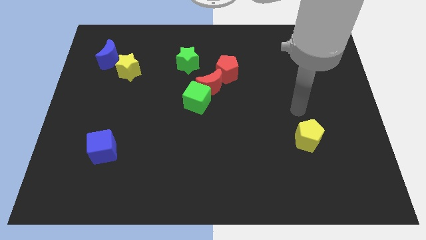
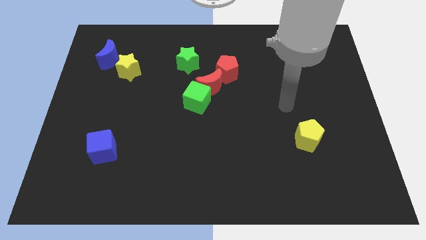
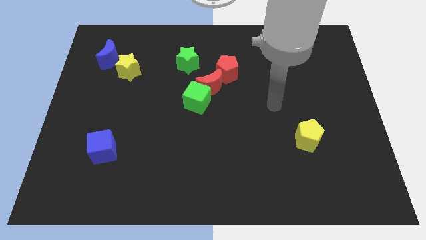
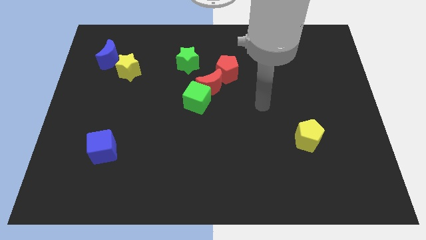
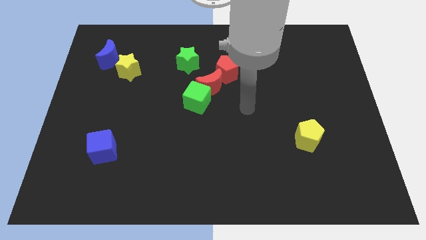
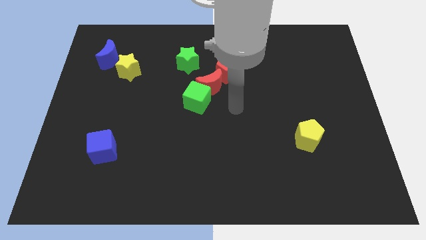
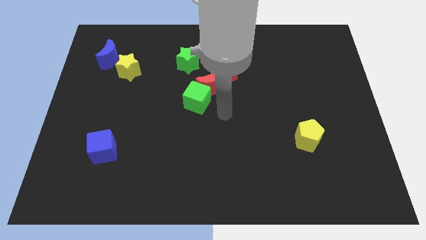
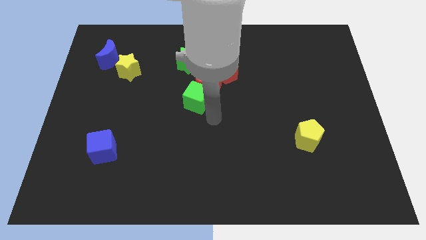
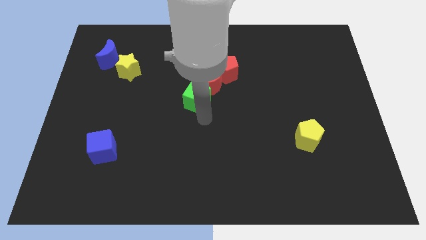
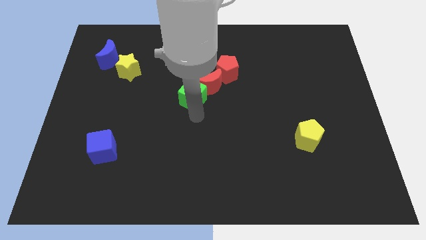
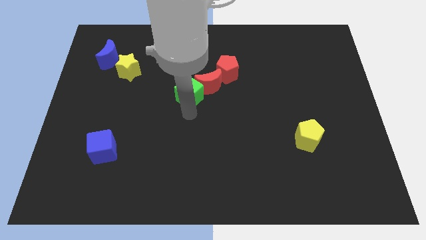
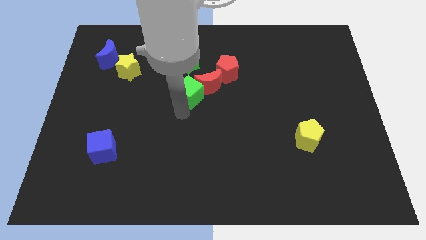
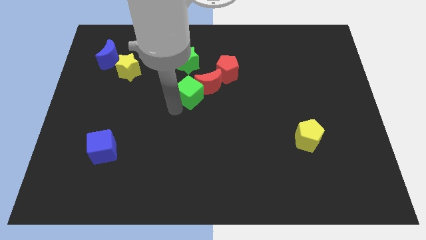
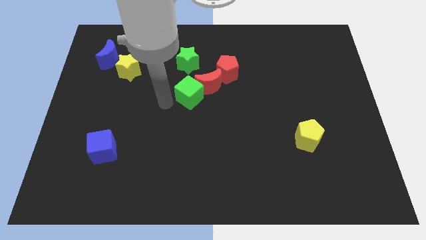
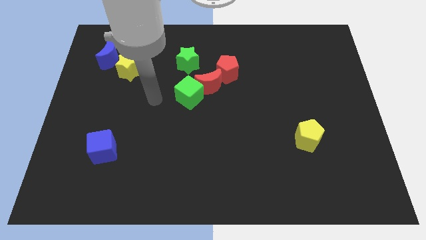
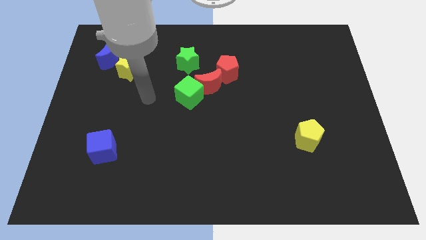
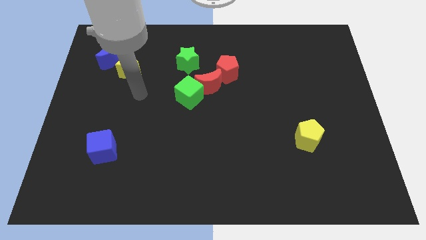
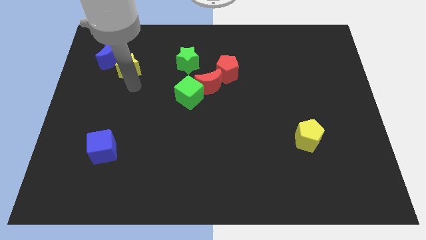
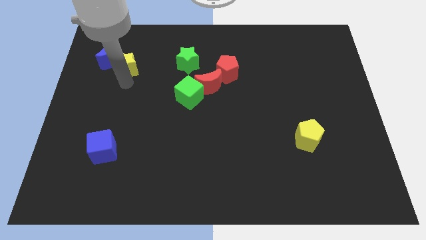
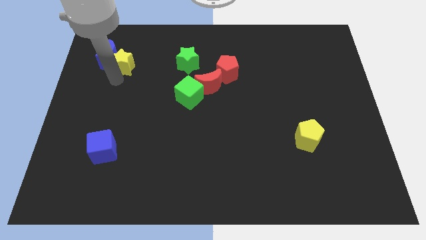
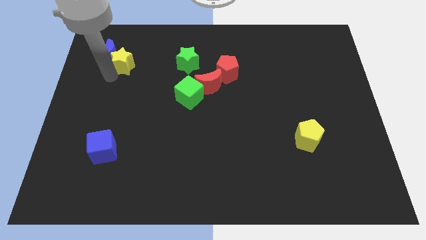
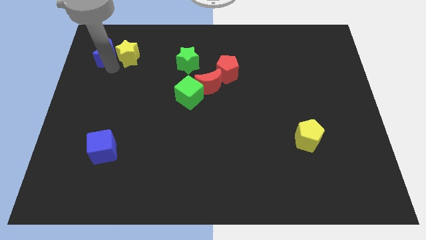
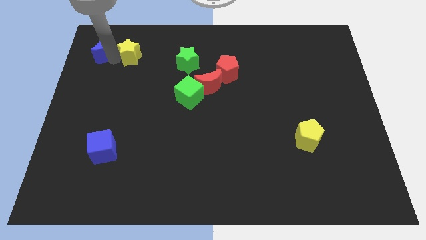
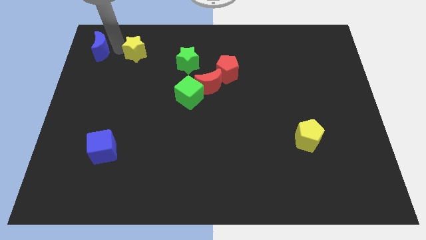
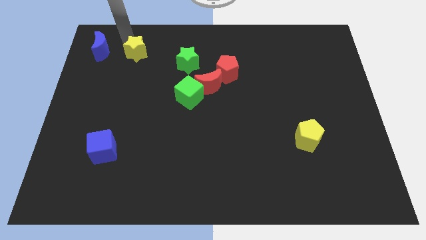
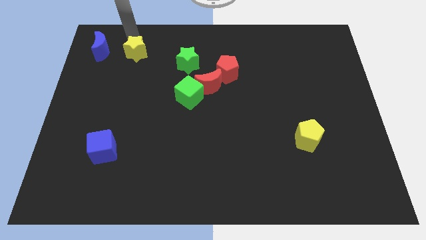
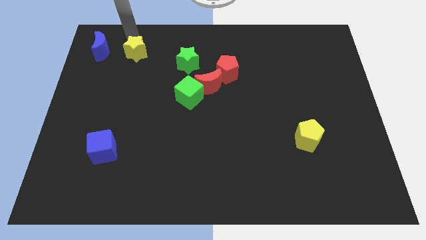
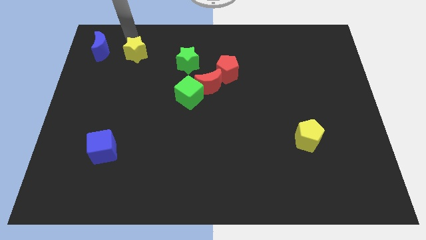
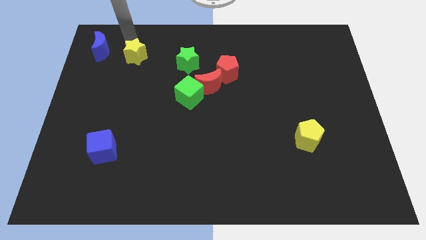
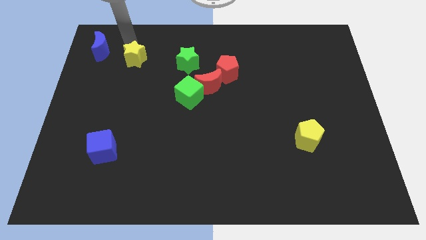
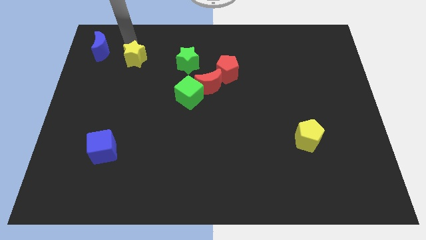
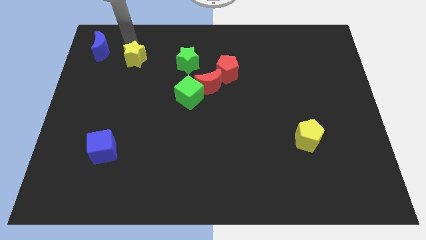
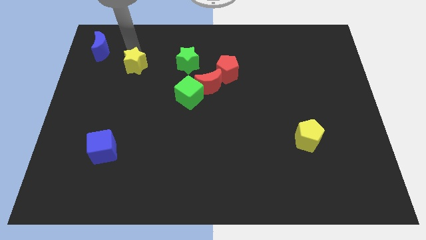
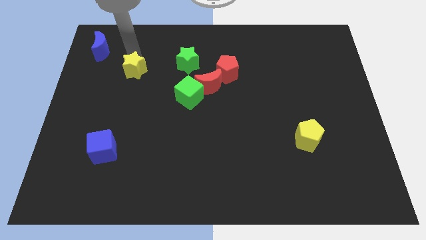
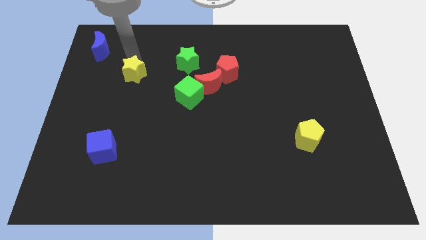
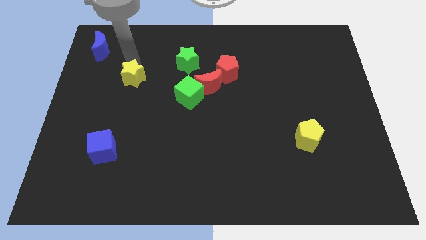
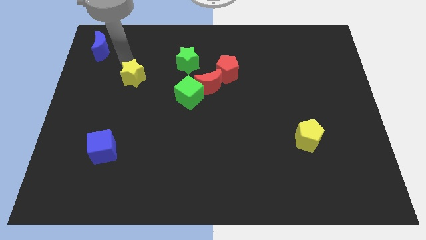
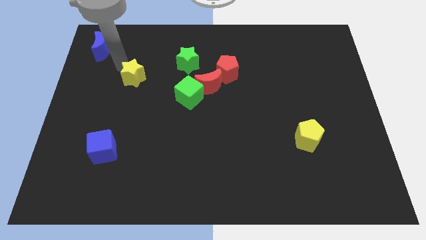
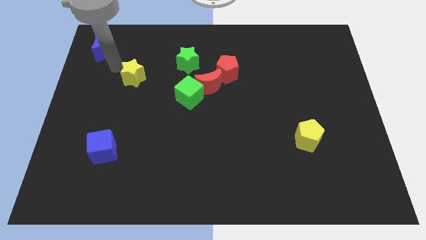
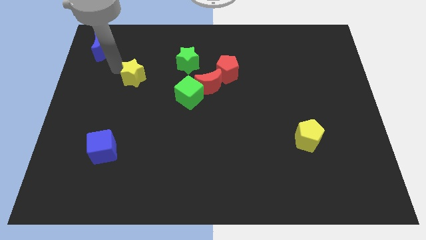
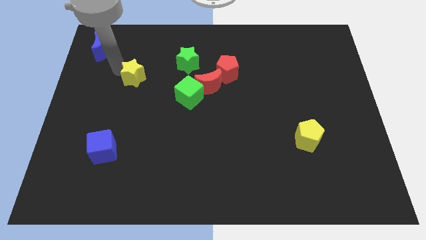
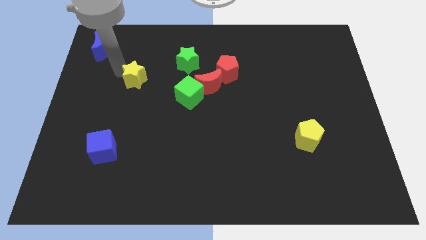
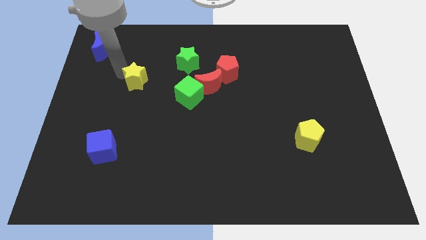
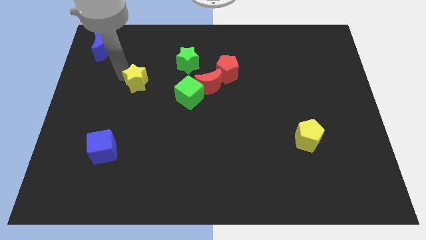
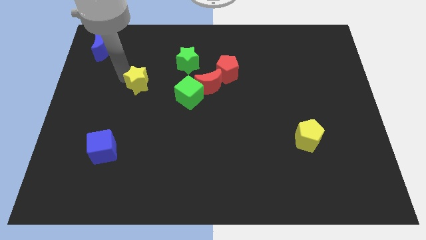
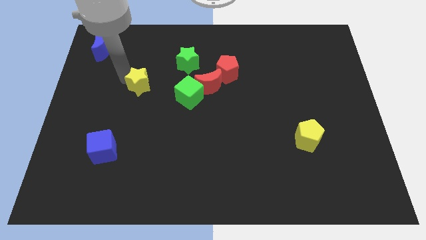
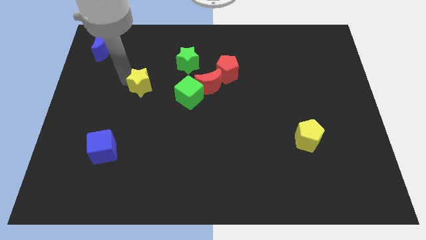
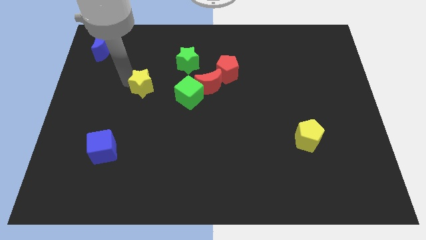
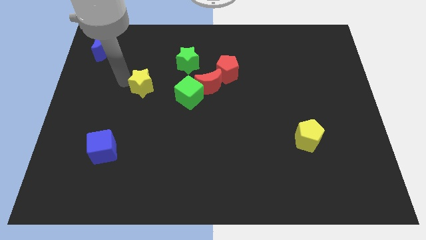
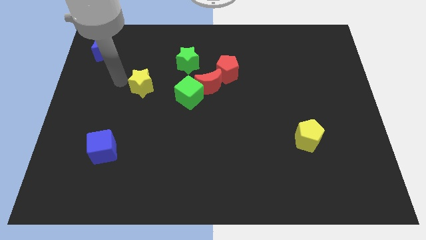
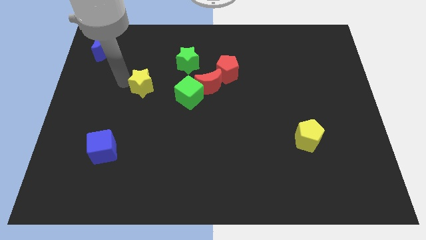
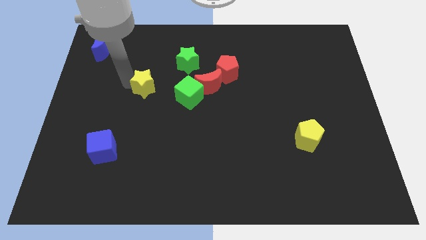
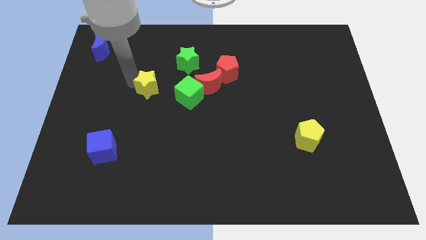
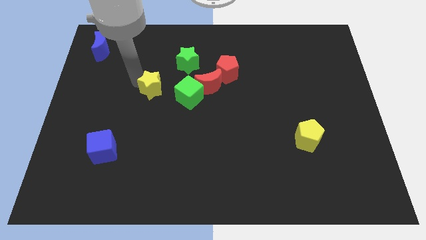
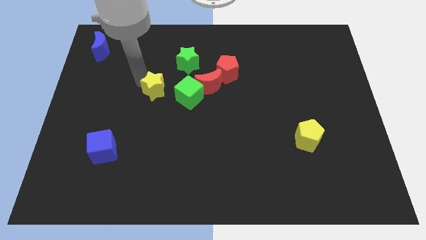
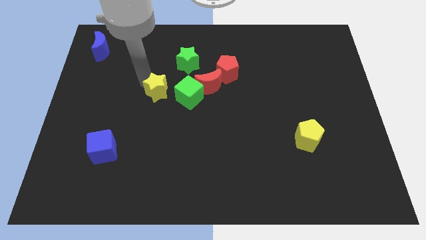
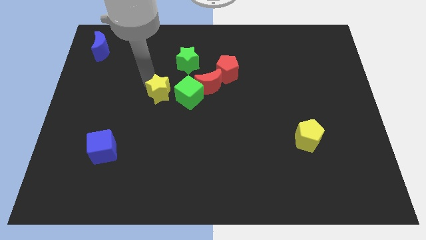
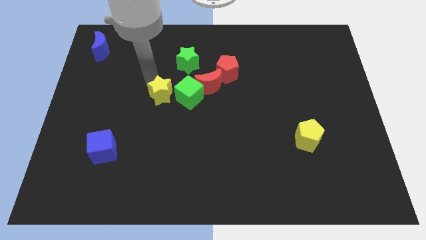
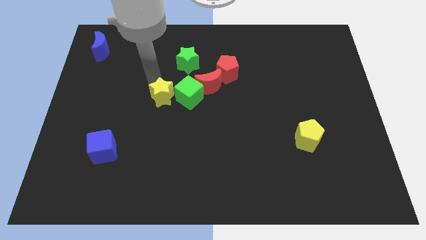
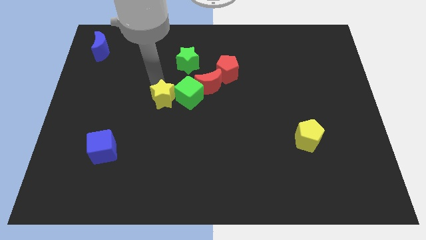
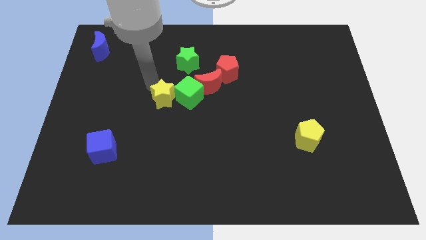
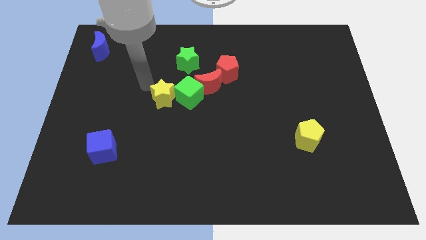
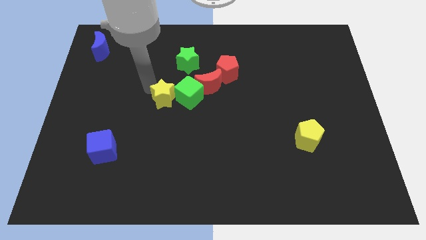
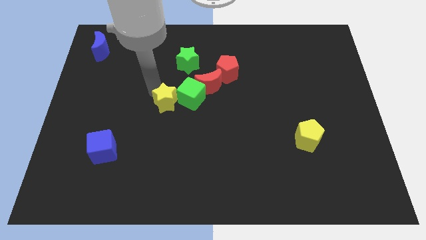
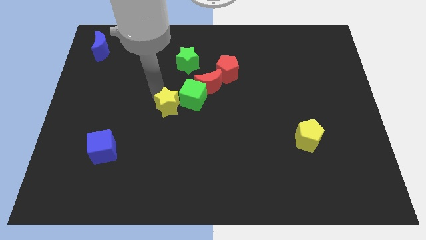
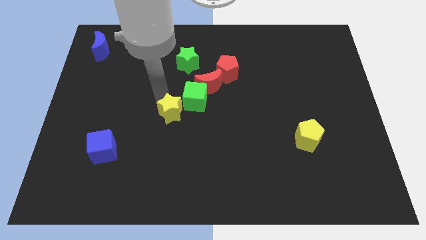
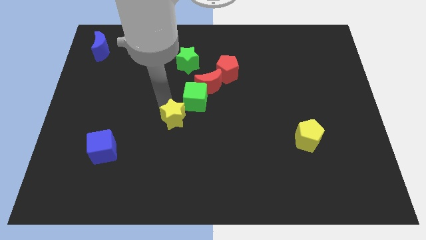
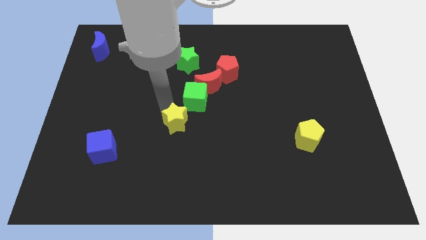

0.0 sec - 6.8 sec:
slide the yellow star down and right diagonally

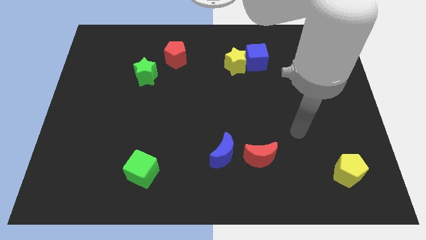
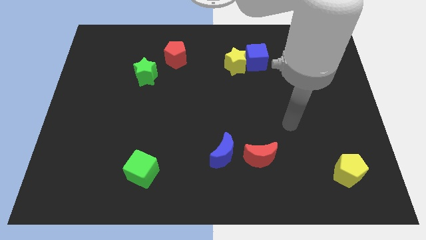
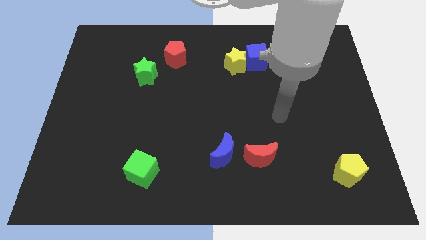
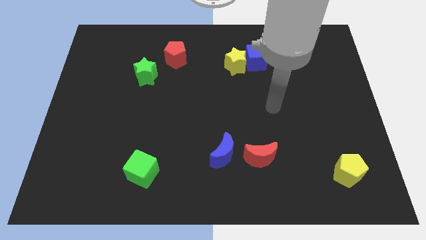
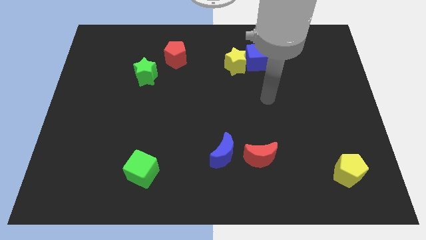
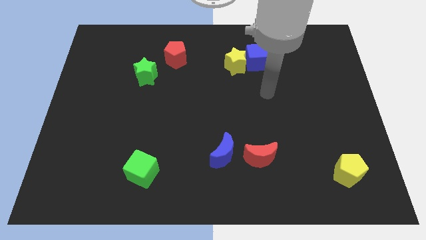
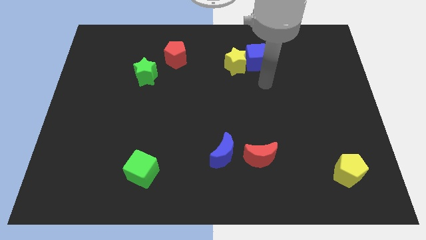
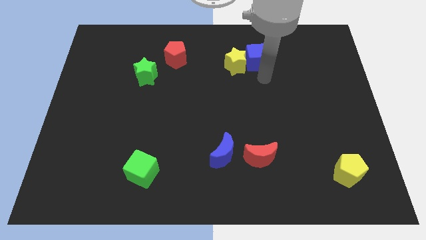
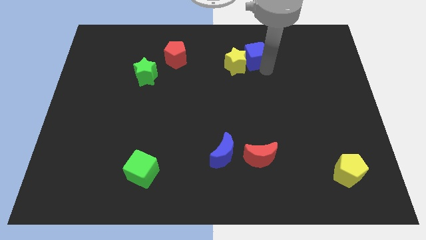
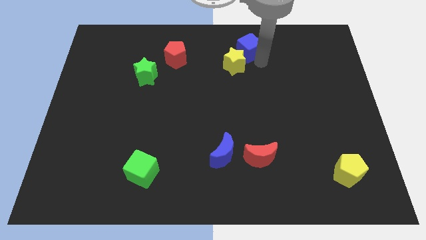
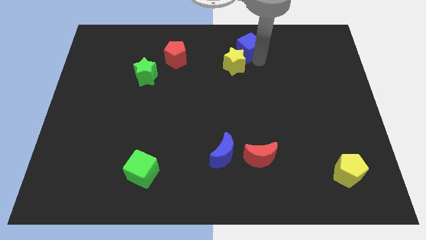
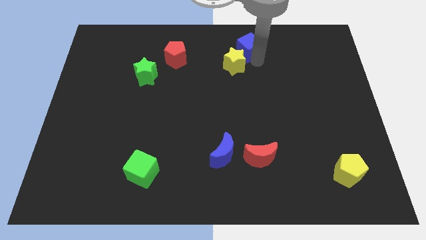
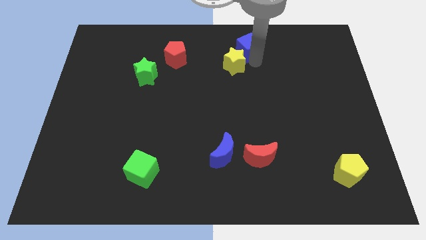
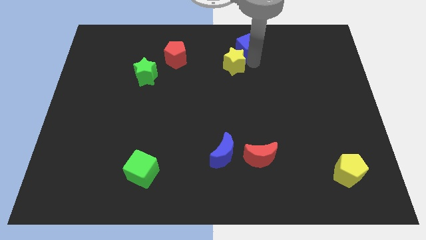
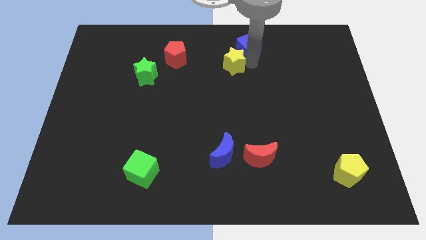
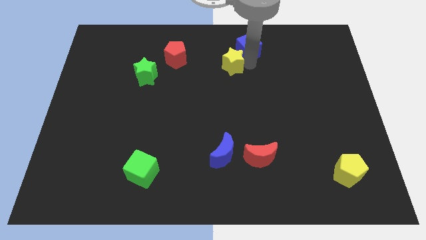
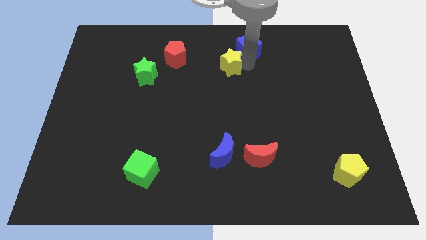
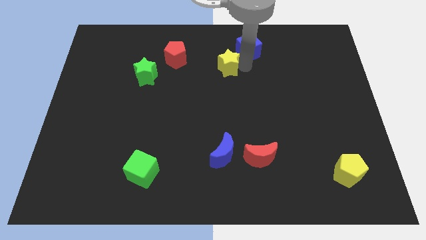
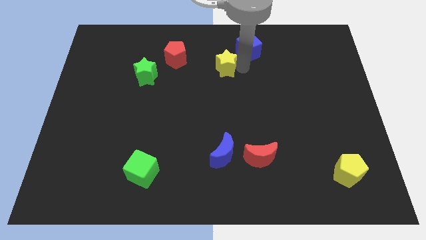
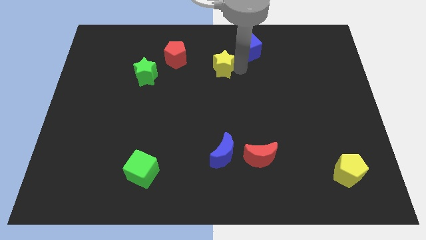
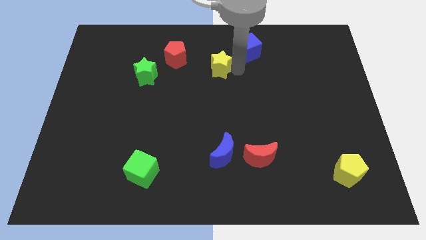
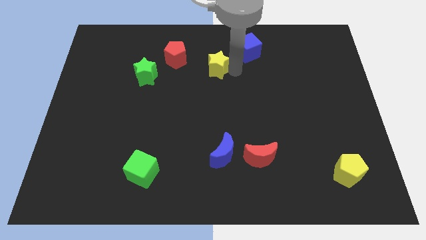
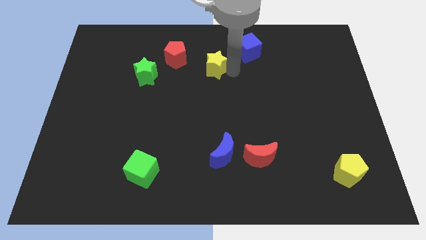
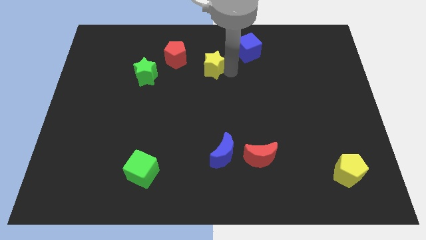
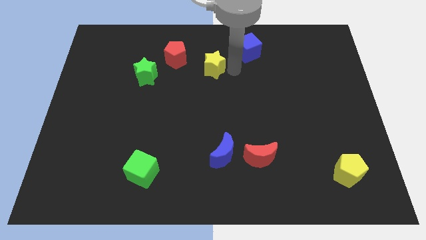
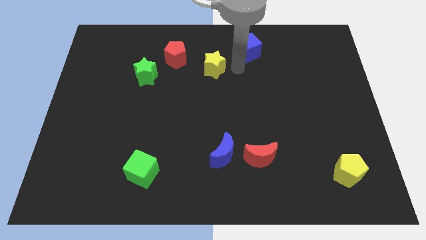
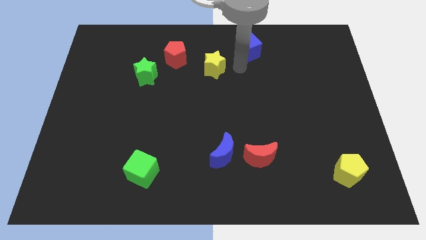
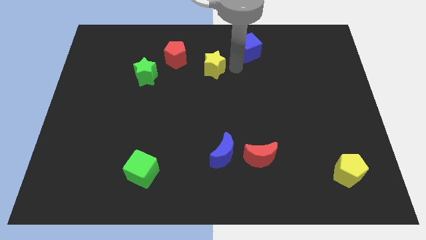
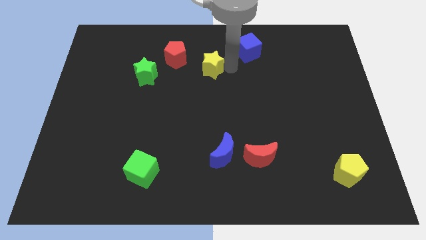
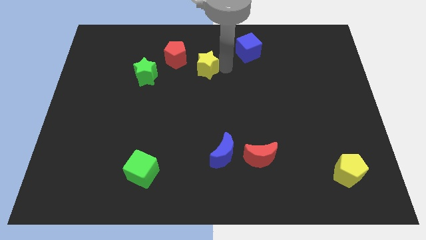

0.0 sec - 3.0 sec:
slide the yellow star slightly left
